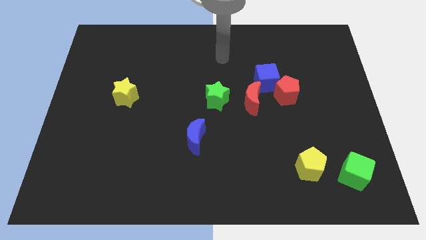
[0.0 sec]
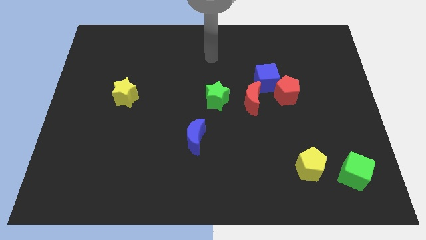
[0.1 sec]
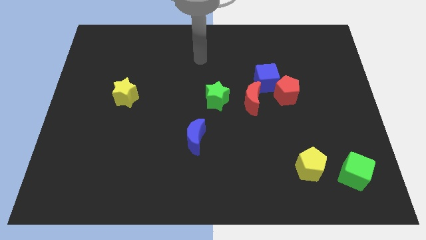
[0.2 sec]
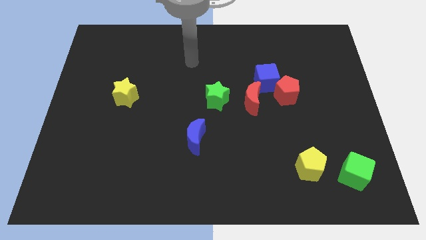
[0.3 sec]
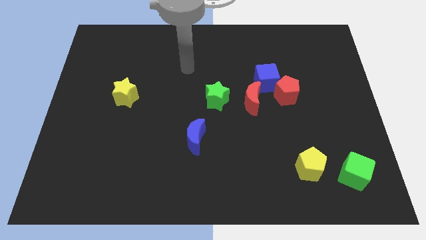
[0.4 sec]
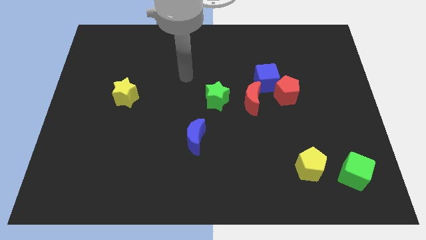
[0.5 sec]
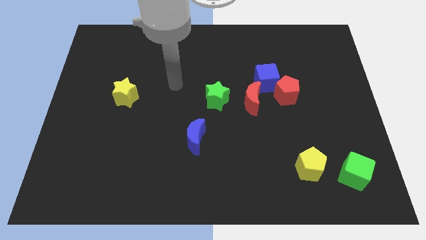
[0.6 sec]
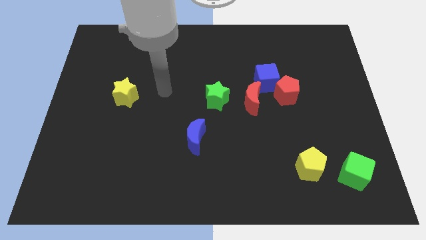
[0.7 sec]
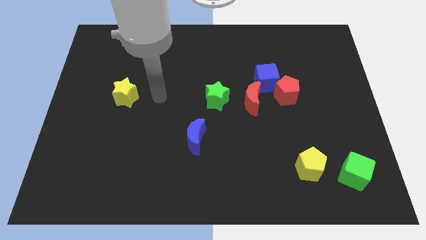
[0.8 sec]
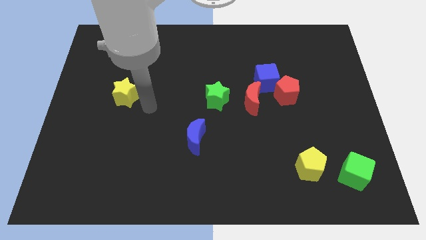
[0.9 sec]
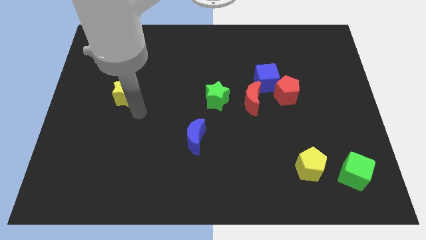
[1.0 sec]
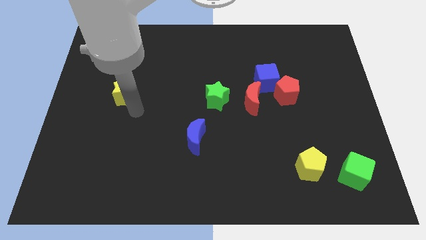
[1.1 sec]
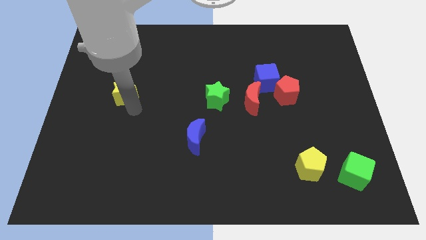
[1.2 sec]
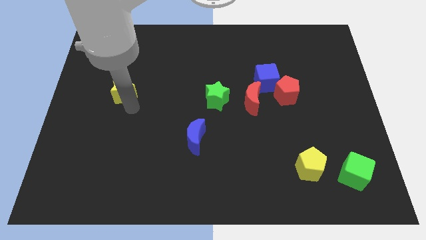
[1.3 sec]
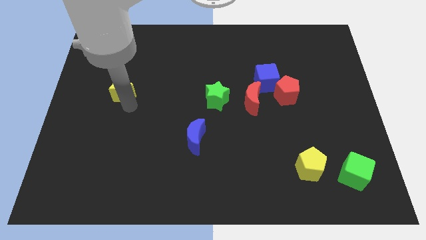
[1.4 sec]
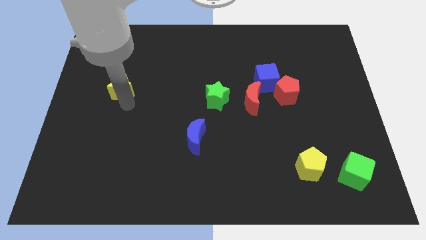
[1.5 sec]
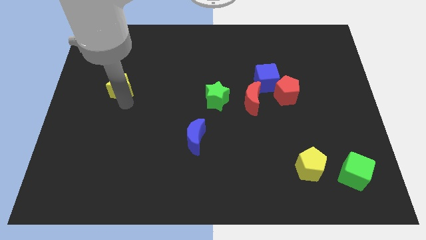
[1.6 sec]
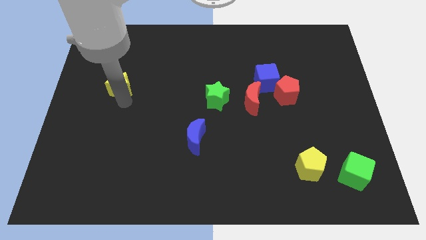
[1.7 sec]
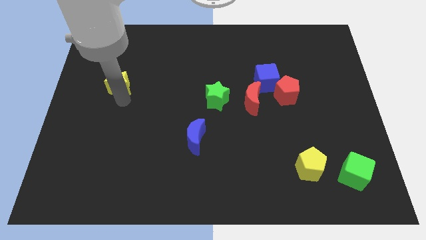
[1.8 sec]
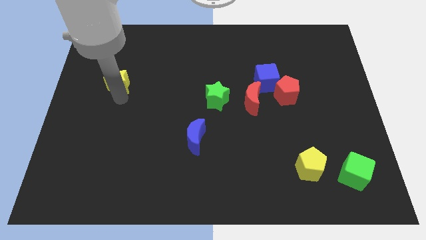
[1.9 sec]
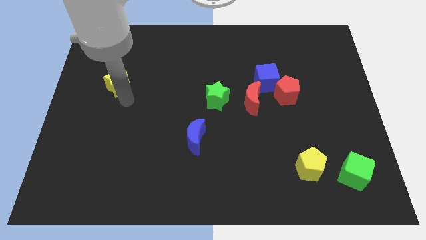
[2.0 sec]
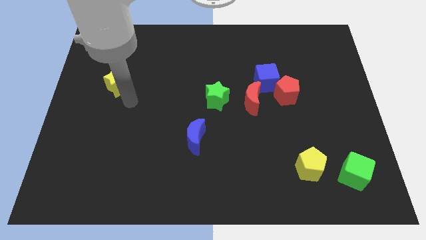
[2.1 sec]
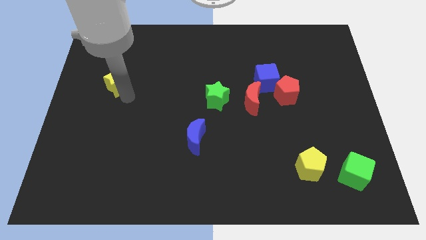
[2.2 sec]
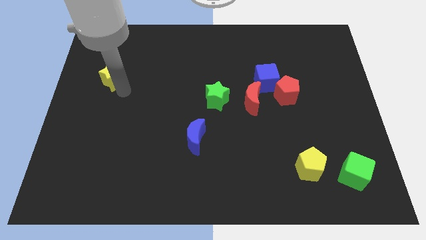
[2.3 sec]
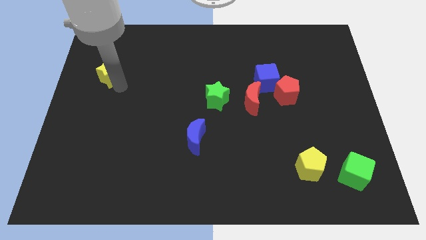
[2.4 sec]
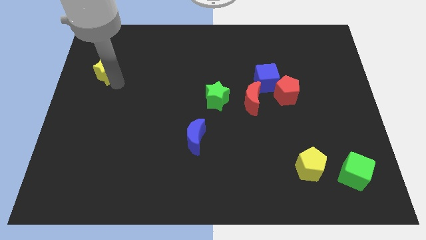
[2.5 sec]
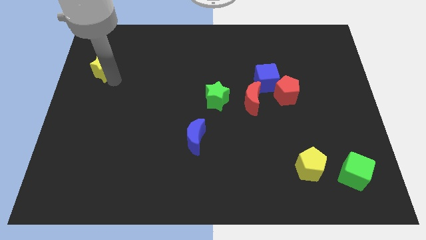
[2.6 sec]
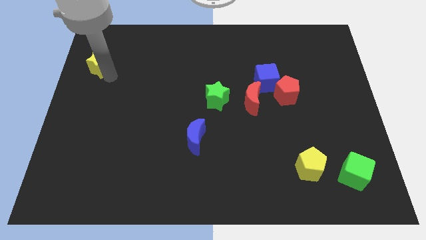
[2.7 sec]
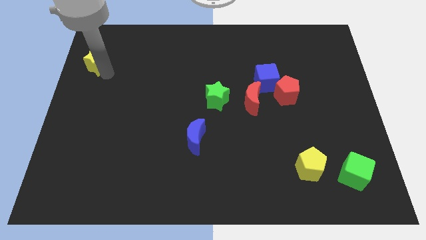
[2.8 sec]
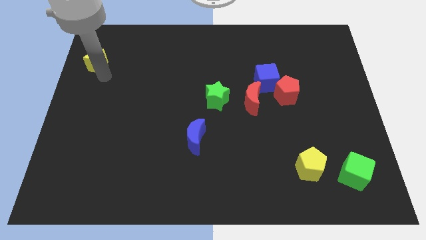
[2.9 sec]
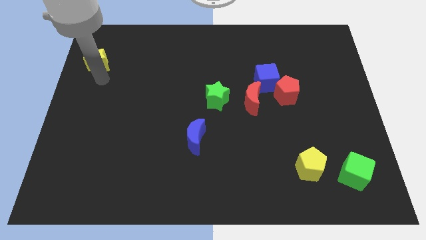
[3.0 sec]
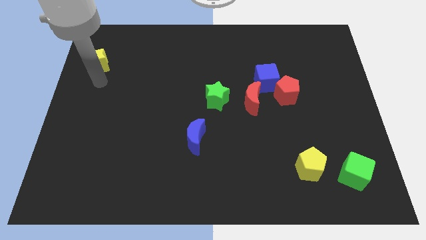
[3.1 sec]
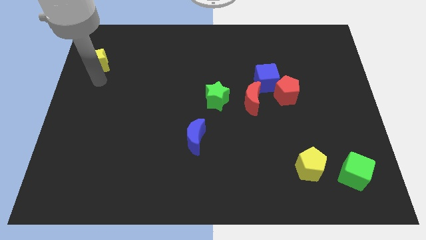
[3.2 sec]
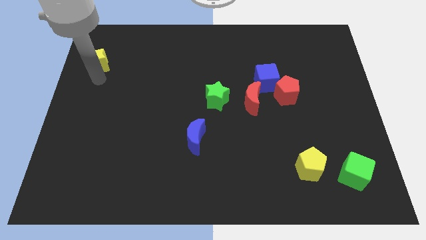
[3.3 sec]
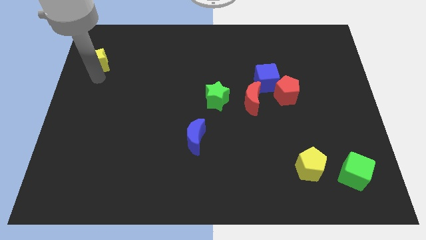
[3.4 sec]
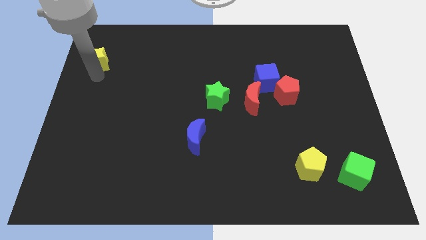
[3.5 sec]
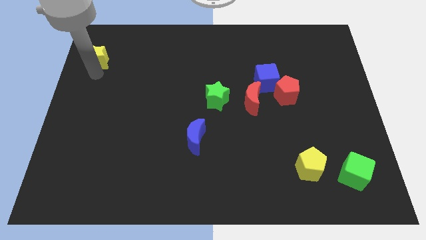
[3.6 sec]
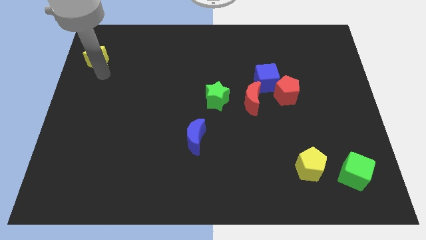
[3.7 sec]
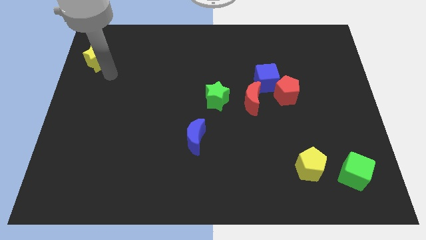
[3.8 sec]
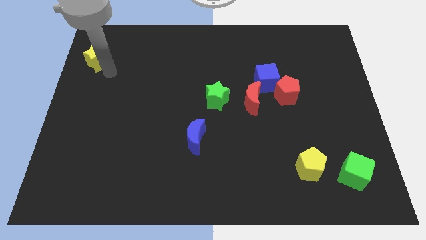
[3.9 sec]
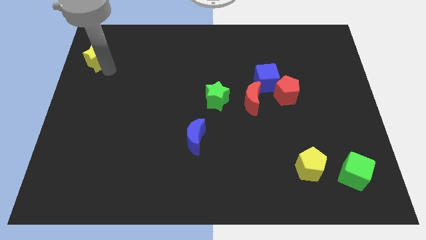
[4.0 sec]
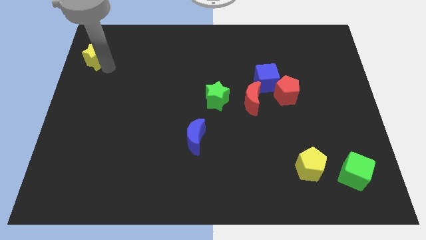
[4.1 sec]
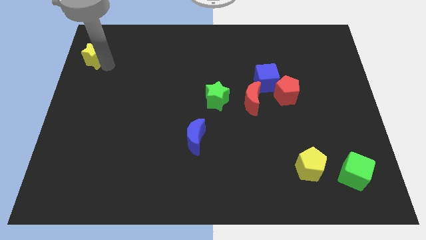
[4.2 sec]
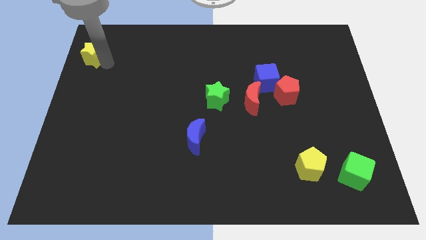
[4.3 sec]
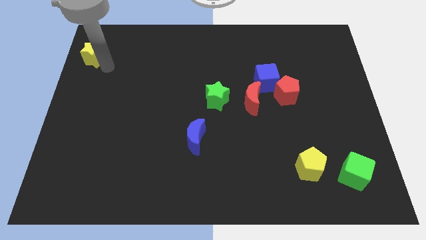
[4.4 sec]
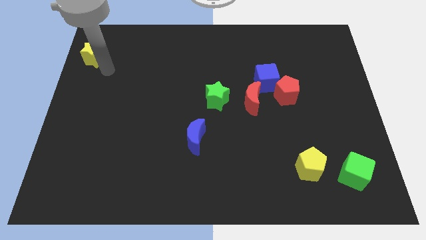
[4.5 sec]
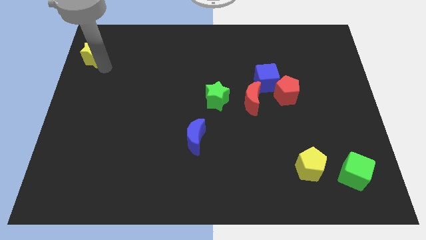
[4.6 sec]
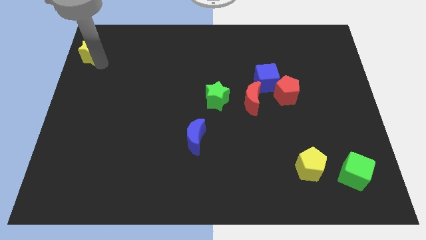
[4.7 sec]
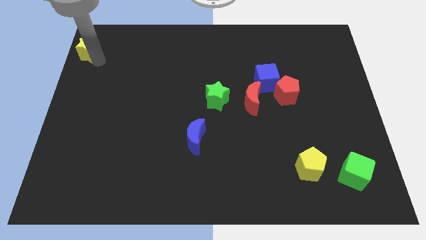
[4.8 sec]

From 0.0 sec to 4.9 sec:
put the yellow star to the top left of the board

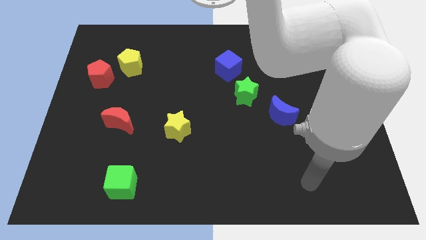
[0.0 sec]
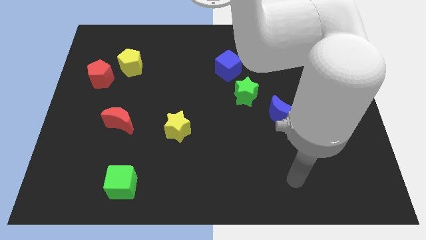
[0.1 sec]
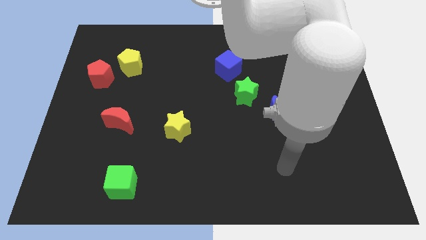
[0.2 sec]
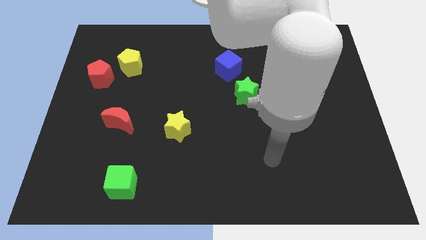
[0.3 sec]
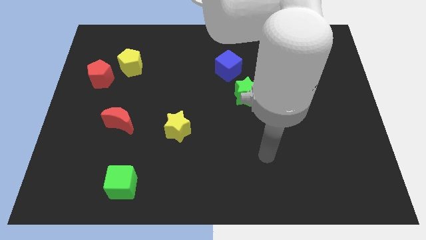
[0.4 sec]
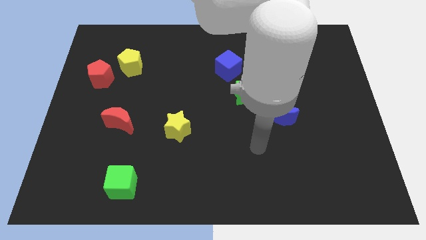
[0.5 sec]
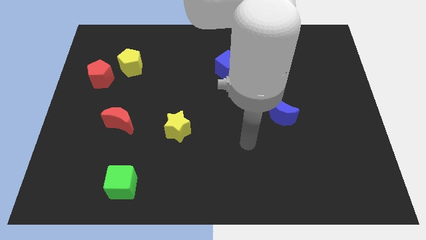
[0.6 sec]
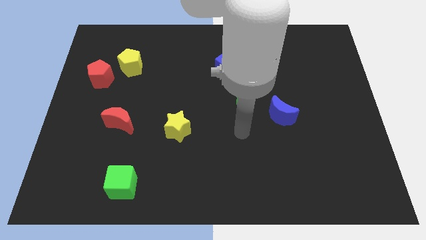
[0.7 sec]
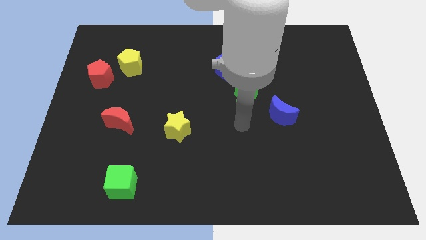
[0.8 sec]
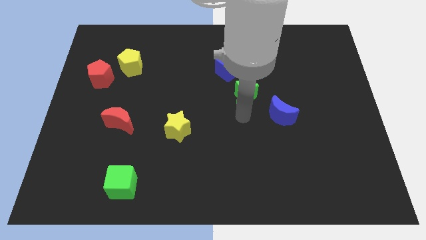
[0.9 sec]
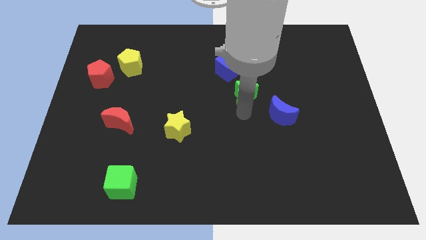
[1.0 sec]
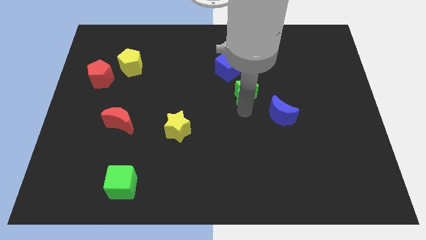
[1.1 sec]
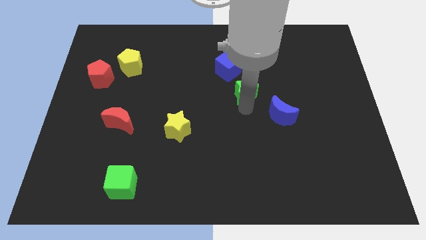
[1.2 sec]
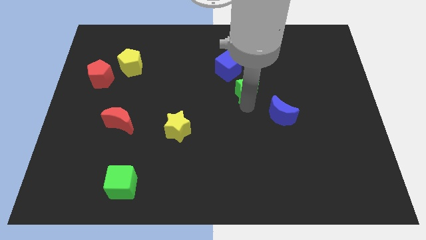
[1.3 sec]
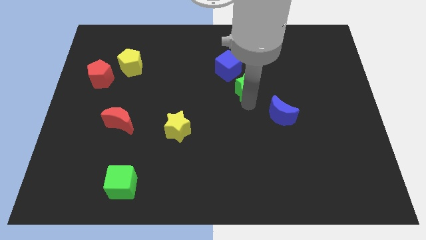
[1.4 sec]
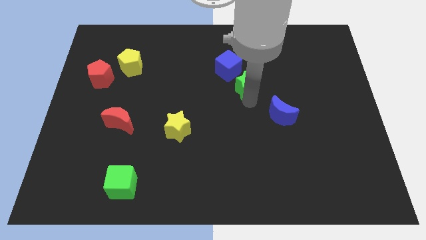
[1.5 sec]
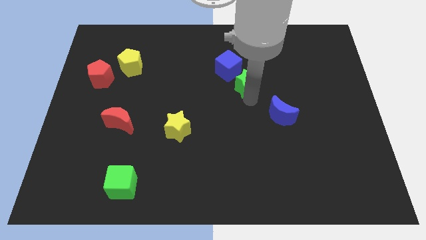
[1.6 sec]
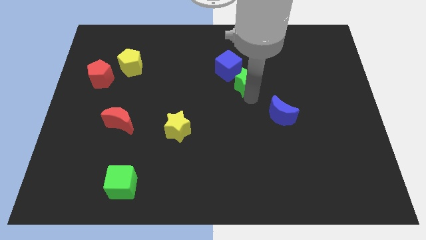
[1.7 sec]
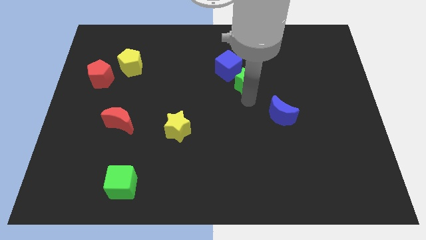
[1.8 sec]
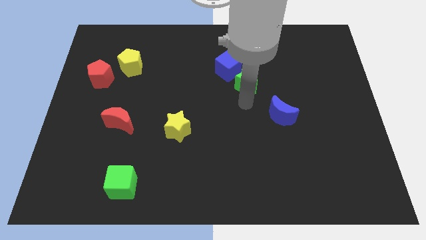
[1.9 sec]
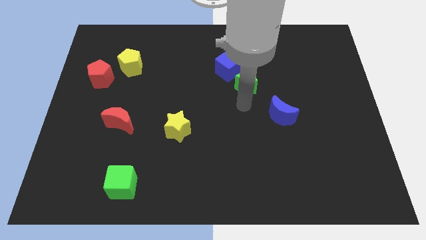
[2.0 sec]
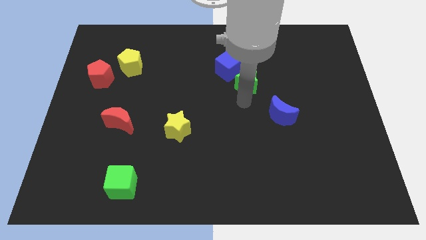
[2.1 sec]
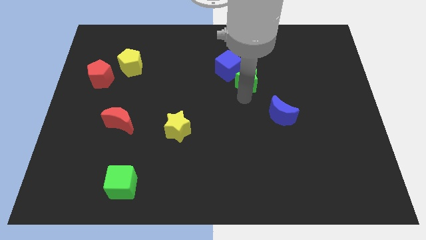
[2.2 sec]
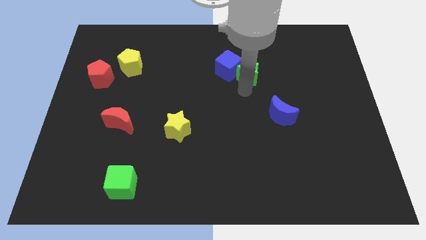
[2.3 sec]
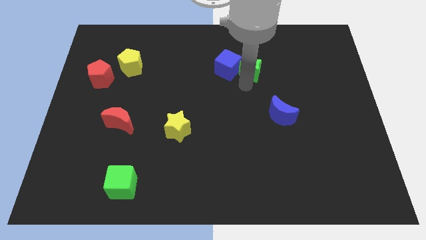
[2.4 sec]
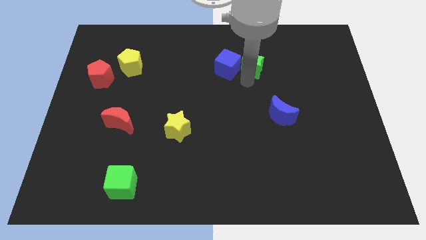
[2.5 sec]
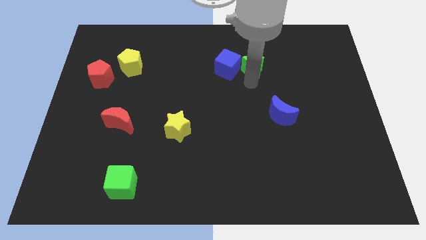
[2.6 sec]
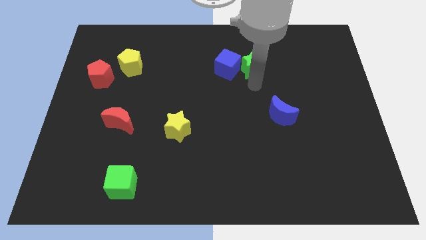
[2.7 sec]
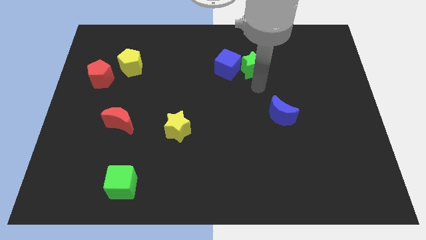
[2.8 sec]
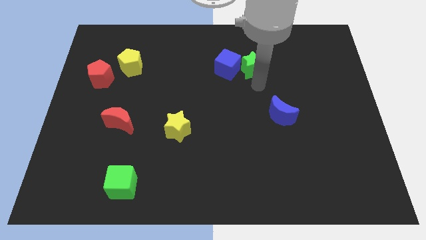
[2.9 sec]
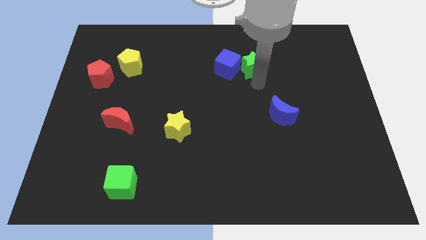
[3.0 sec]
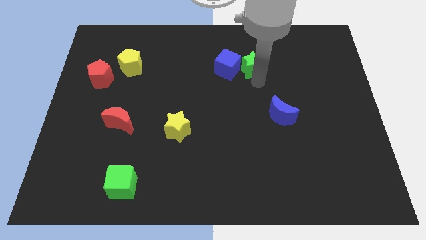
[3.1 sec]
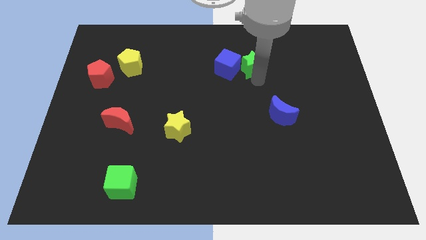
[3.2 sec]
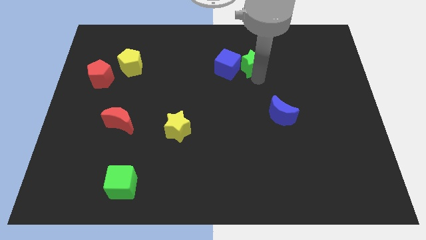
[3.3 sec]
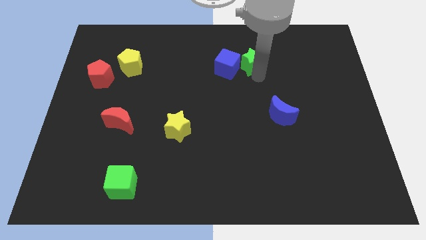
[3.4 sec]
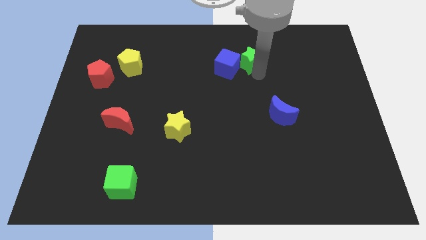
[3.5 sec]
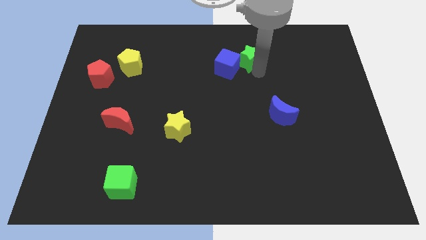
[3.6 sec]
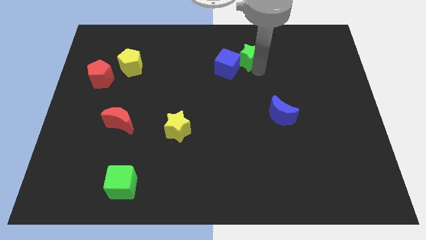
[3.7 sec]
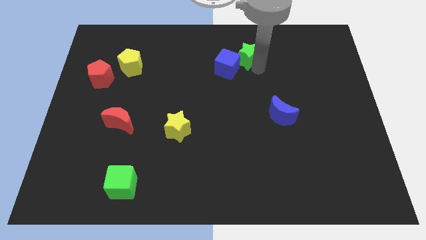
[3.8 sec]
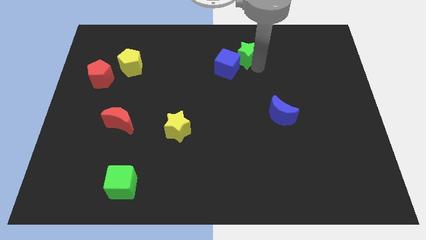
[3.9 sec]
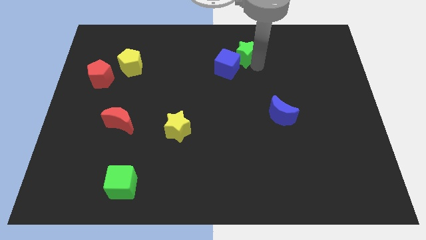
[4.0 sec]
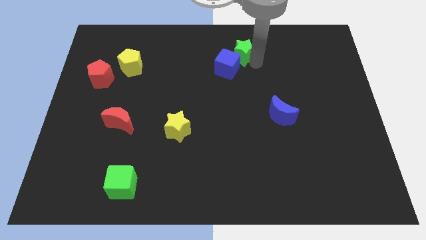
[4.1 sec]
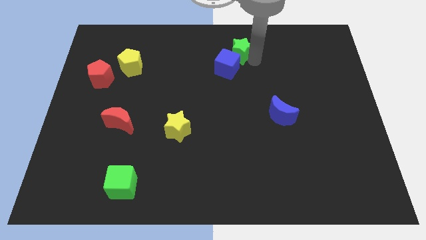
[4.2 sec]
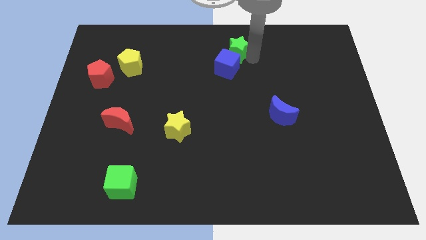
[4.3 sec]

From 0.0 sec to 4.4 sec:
move the green star to the top side
